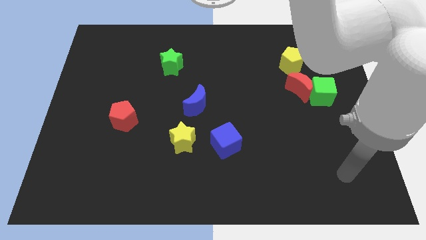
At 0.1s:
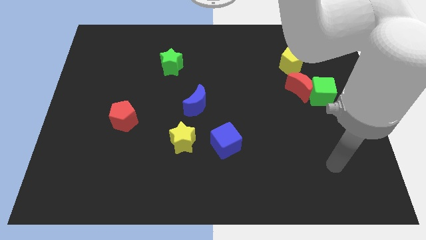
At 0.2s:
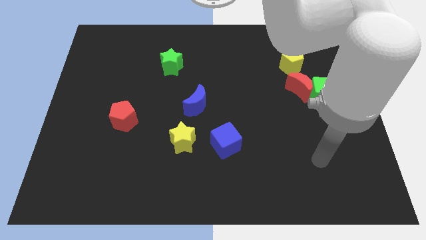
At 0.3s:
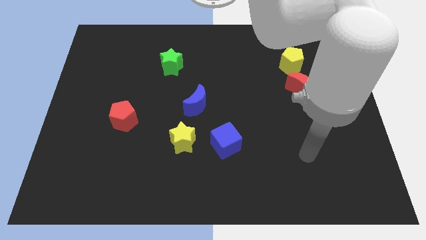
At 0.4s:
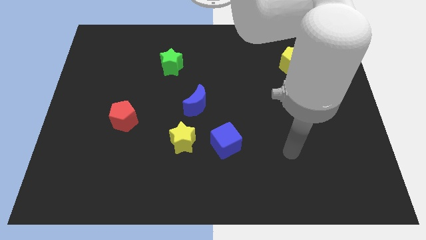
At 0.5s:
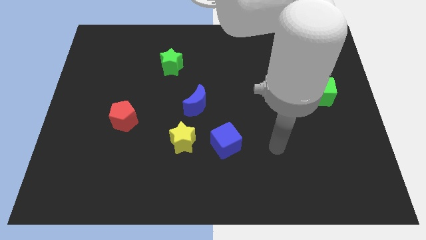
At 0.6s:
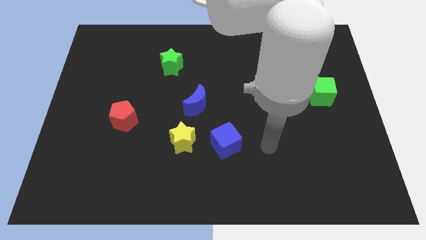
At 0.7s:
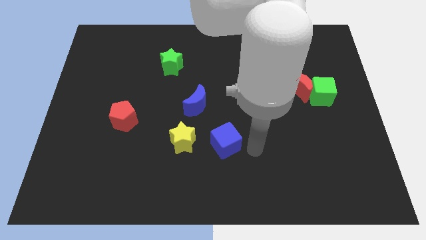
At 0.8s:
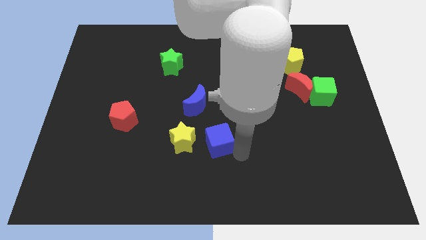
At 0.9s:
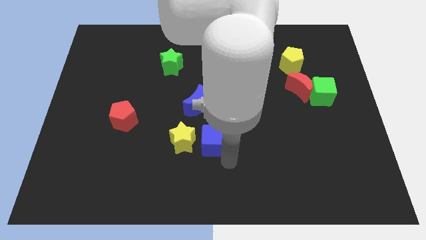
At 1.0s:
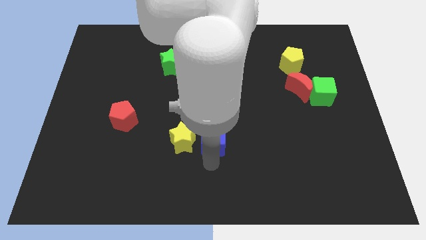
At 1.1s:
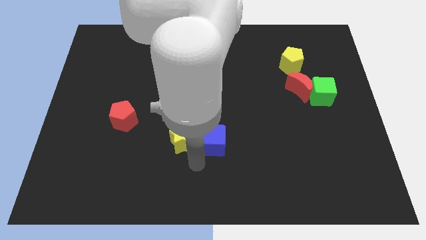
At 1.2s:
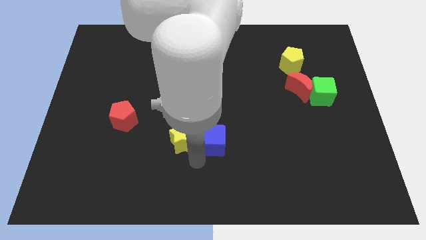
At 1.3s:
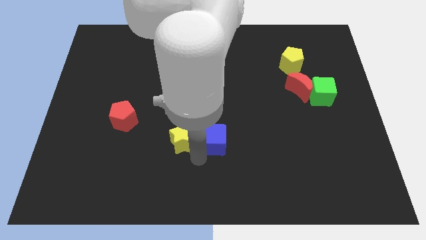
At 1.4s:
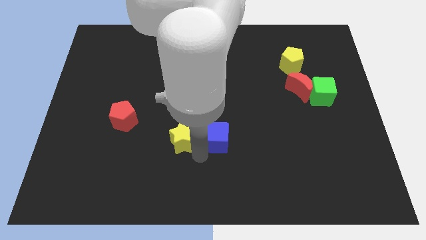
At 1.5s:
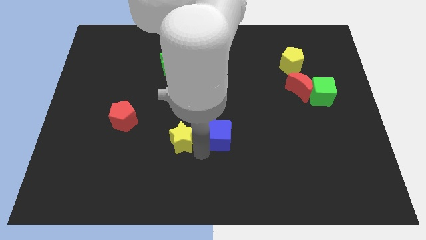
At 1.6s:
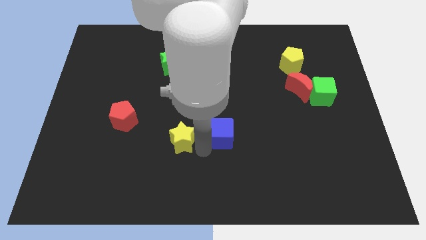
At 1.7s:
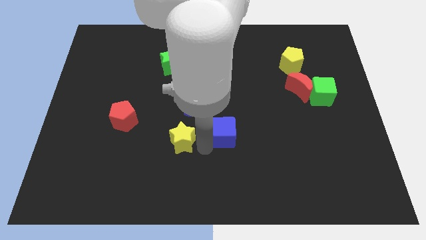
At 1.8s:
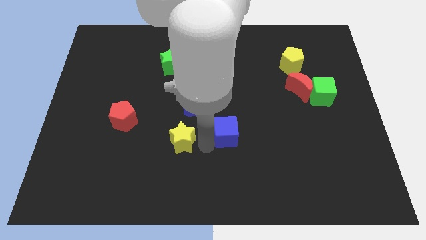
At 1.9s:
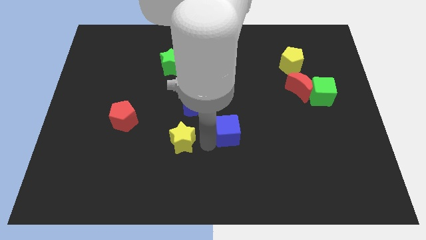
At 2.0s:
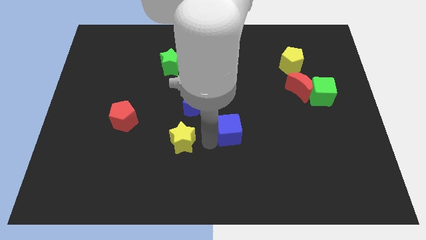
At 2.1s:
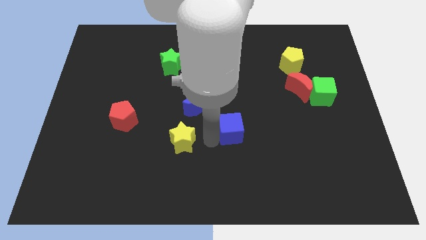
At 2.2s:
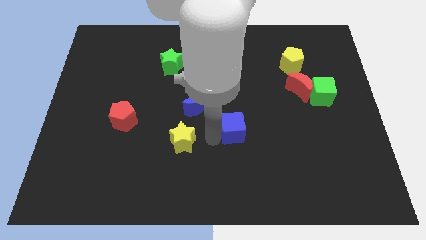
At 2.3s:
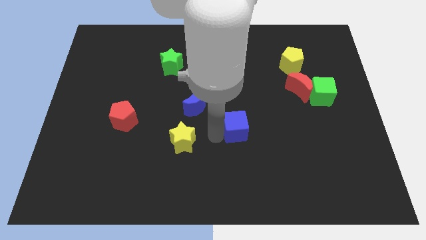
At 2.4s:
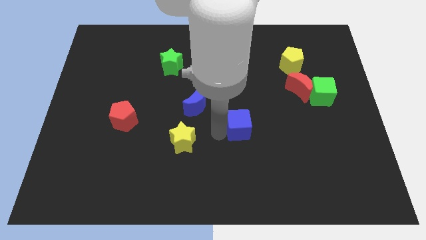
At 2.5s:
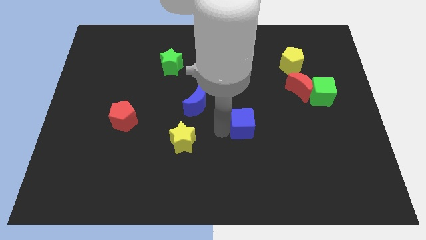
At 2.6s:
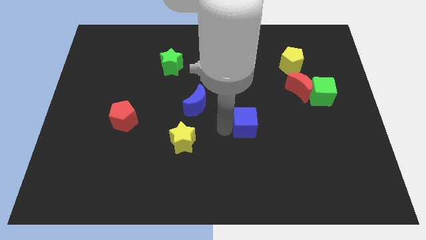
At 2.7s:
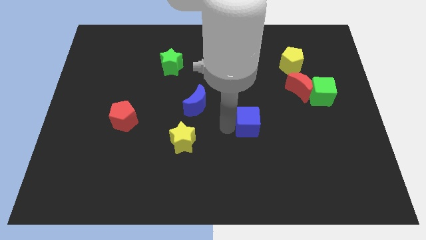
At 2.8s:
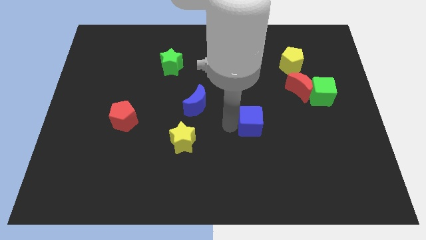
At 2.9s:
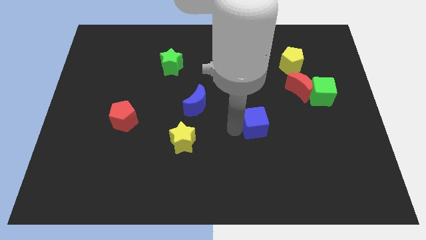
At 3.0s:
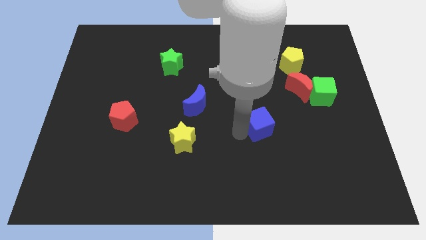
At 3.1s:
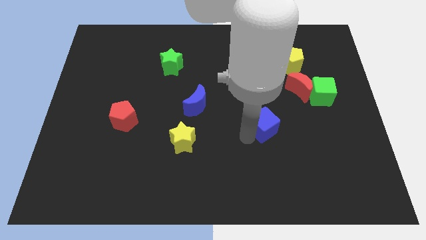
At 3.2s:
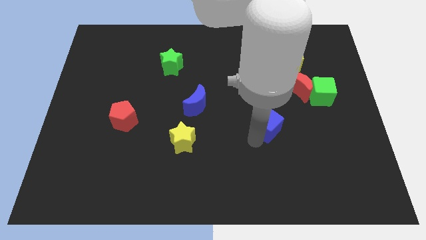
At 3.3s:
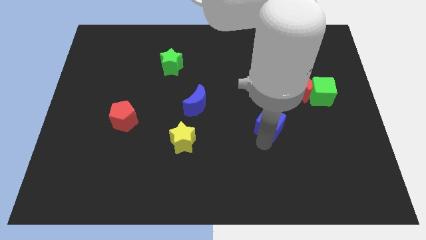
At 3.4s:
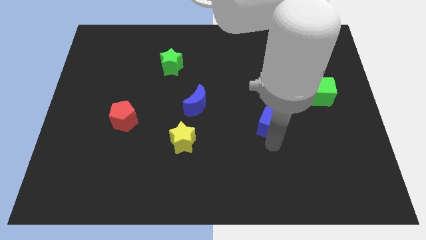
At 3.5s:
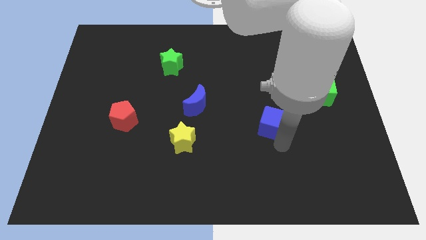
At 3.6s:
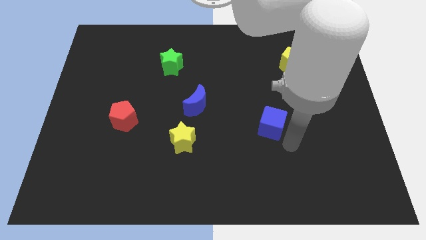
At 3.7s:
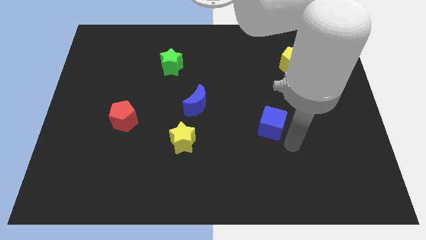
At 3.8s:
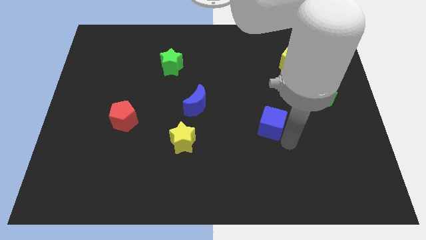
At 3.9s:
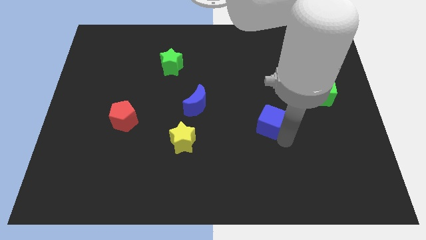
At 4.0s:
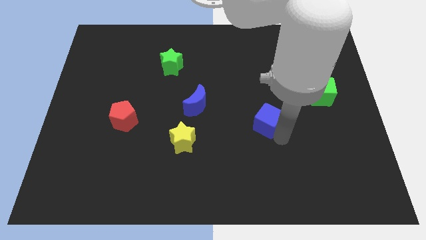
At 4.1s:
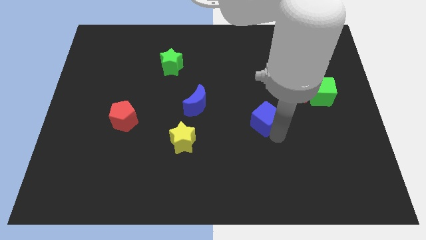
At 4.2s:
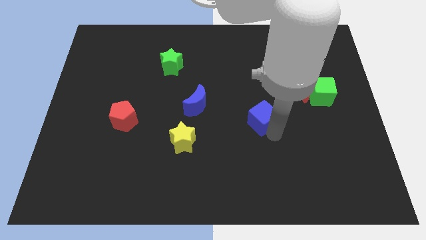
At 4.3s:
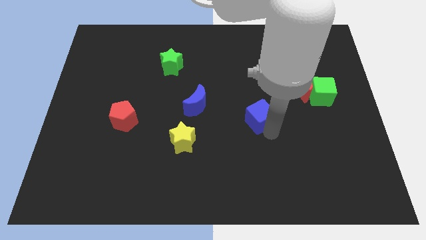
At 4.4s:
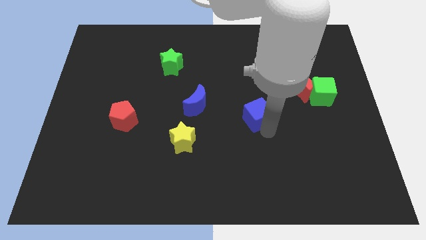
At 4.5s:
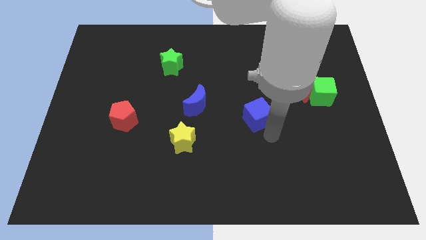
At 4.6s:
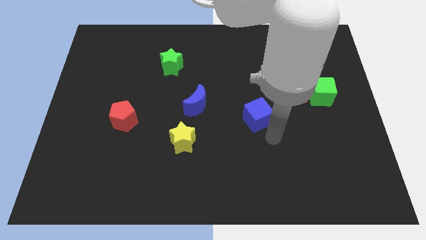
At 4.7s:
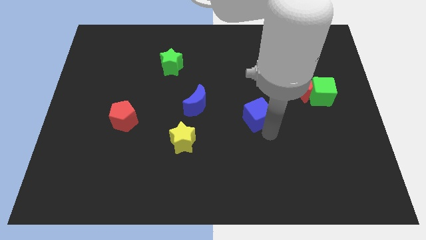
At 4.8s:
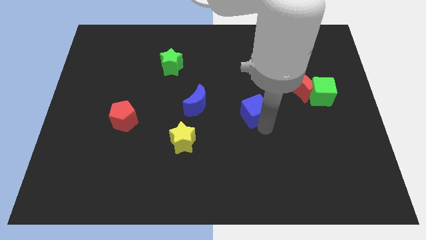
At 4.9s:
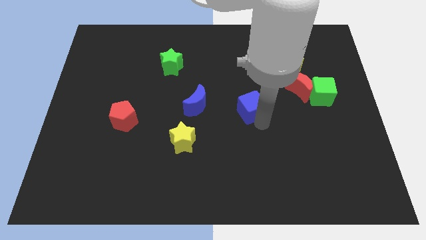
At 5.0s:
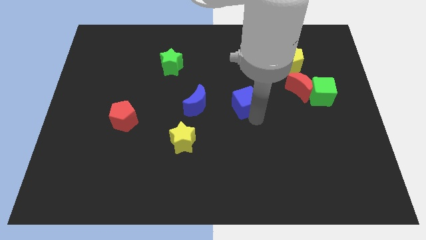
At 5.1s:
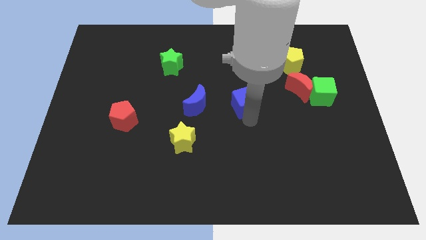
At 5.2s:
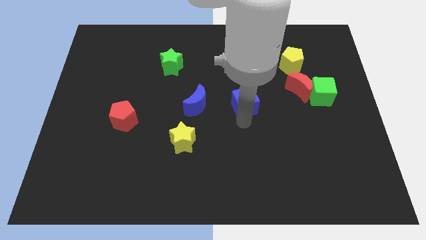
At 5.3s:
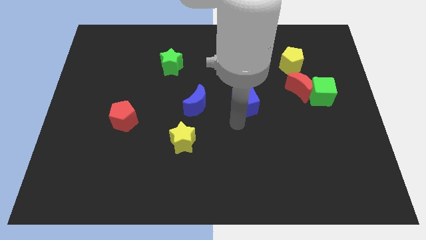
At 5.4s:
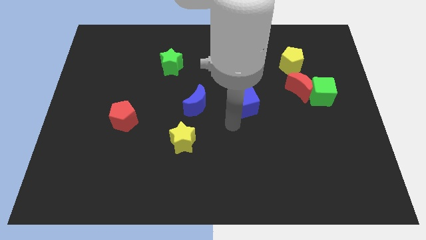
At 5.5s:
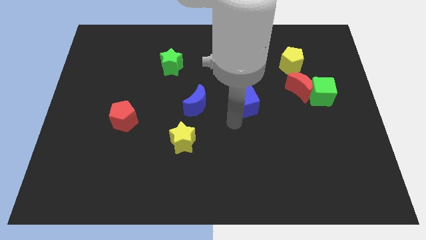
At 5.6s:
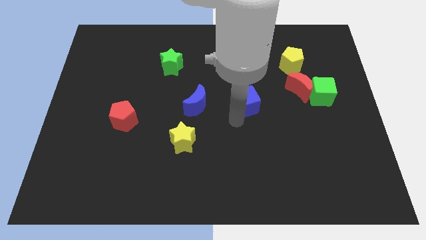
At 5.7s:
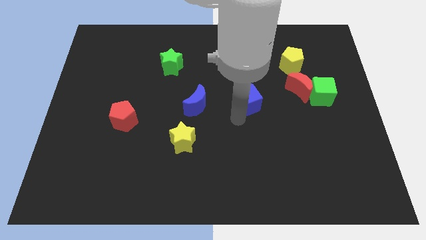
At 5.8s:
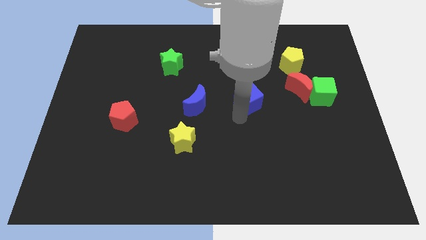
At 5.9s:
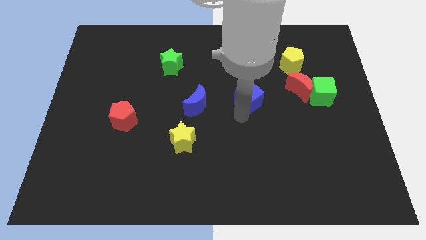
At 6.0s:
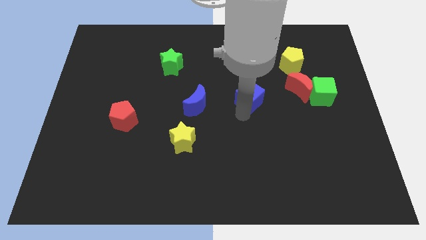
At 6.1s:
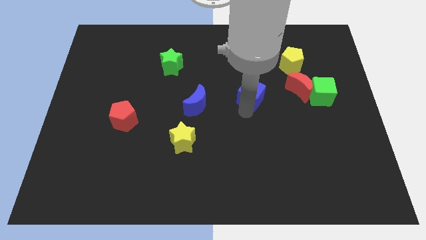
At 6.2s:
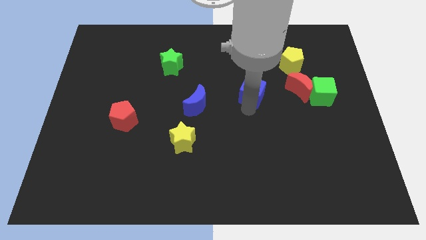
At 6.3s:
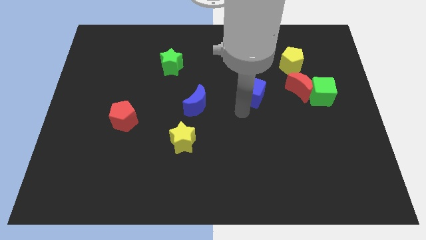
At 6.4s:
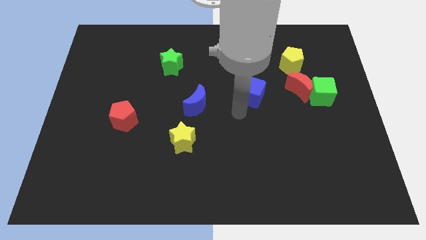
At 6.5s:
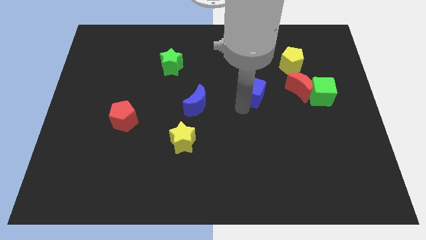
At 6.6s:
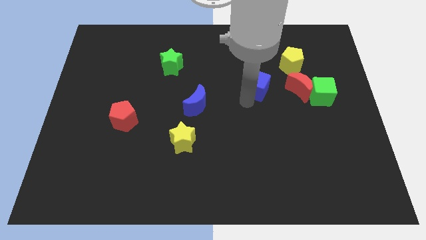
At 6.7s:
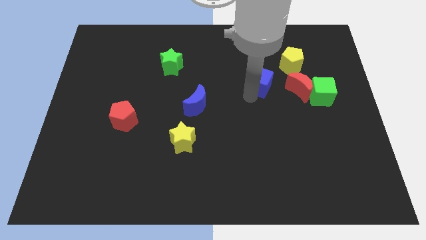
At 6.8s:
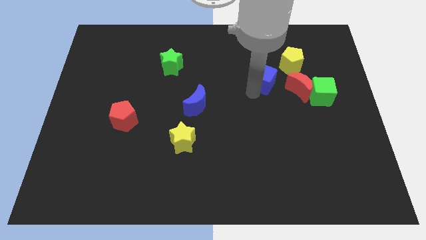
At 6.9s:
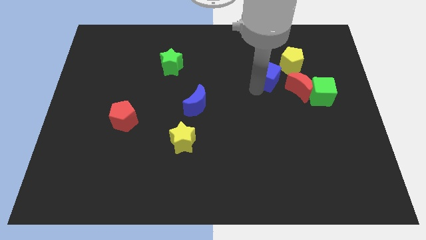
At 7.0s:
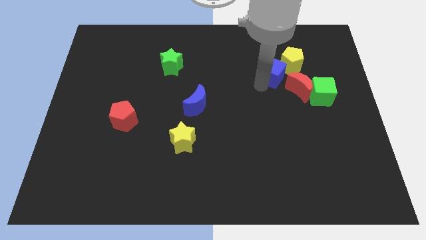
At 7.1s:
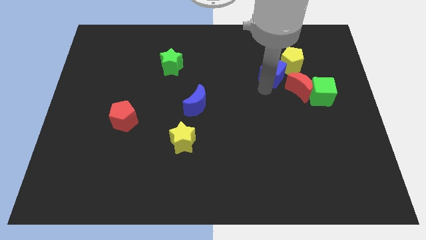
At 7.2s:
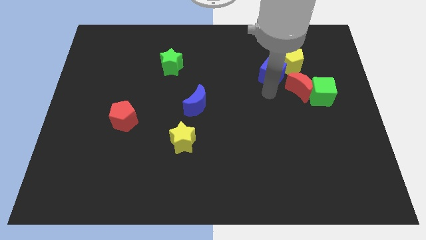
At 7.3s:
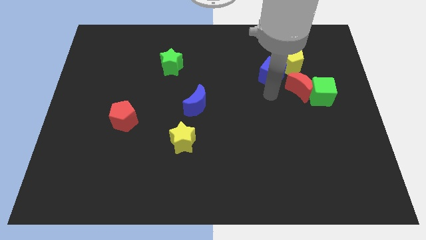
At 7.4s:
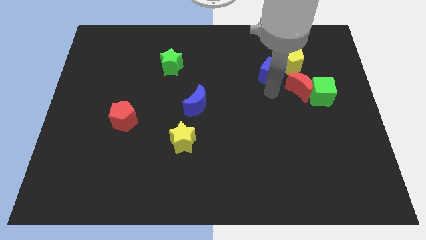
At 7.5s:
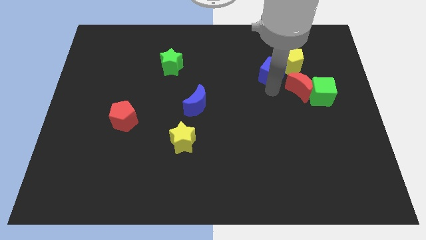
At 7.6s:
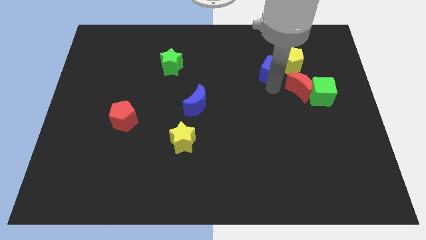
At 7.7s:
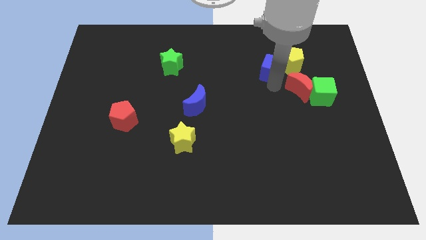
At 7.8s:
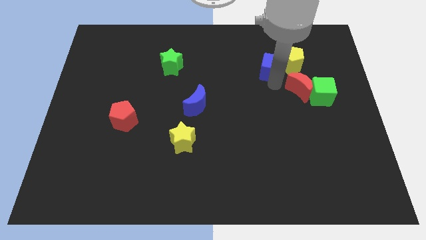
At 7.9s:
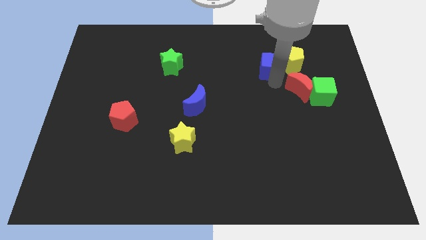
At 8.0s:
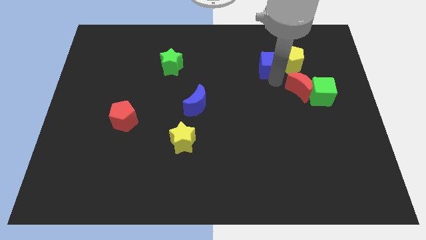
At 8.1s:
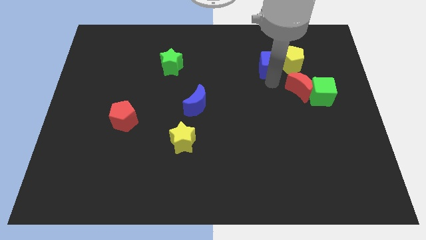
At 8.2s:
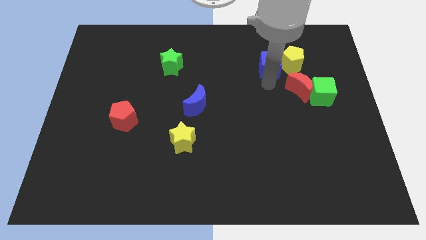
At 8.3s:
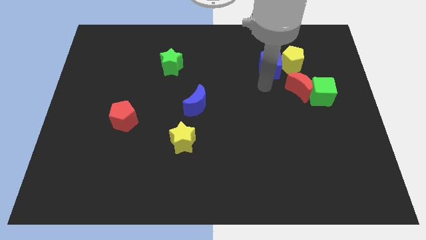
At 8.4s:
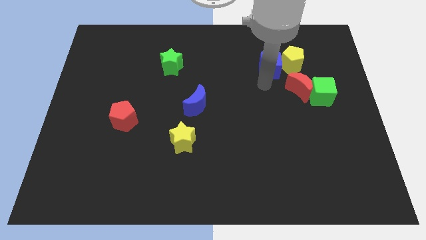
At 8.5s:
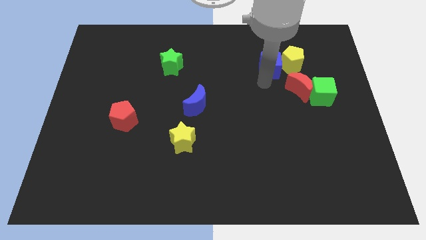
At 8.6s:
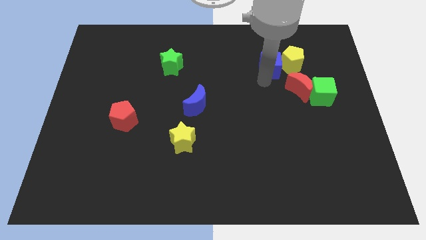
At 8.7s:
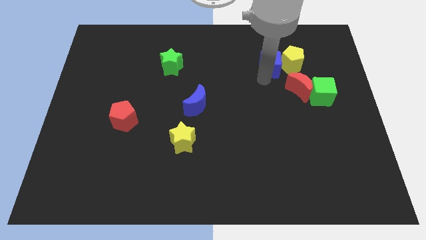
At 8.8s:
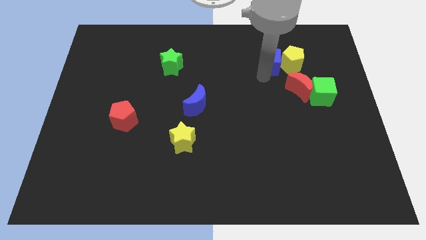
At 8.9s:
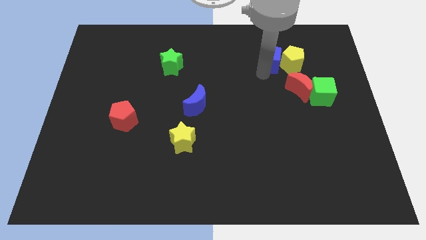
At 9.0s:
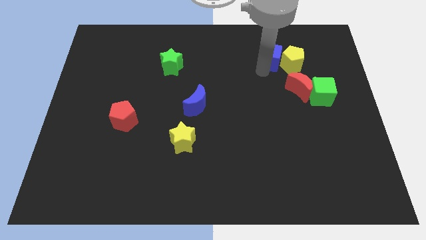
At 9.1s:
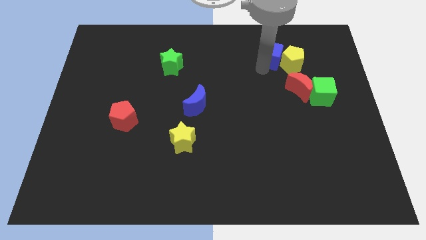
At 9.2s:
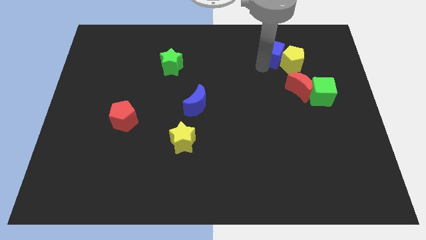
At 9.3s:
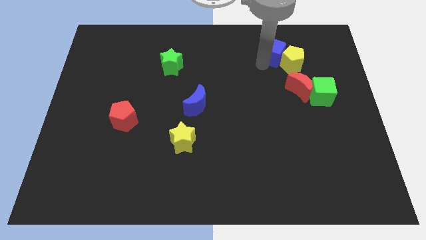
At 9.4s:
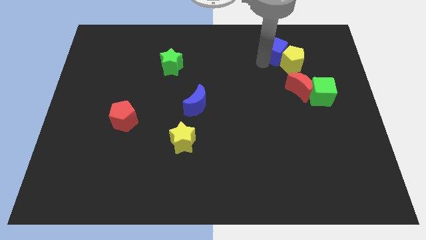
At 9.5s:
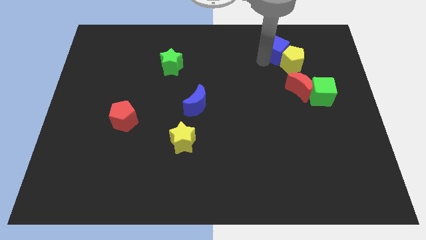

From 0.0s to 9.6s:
put the blue cube to the top of the red moon
